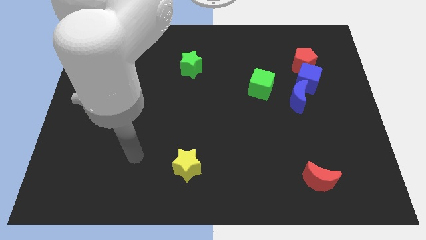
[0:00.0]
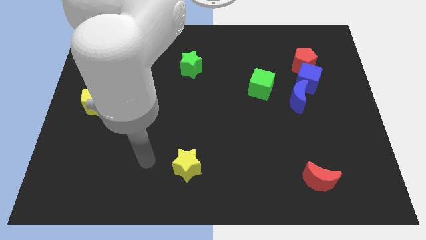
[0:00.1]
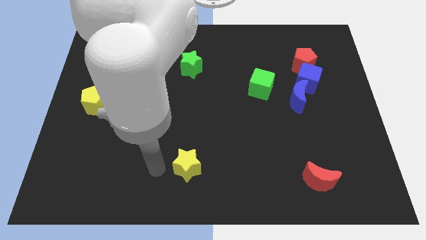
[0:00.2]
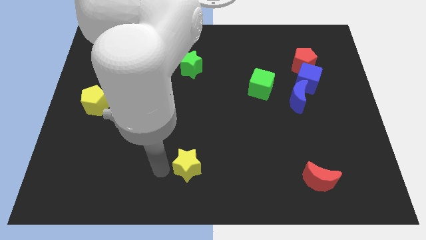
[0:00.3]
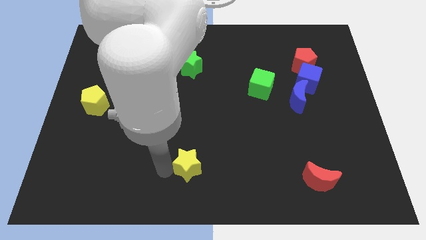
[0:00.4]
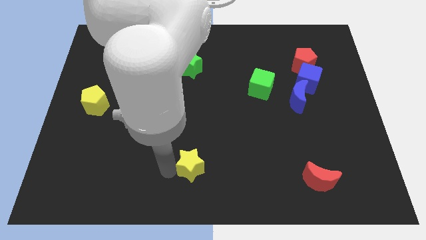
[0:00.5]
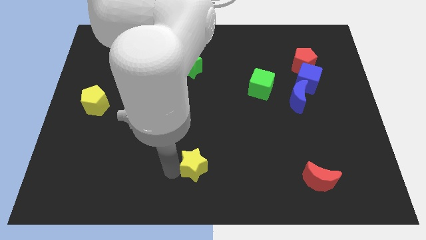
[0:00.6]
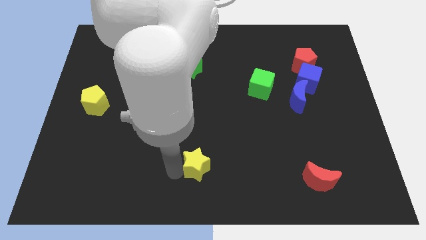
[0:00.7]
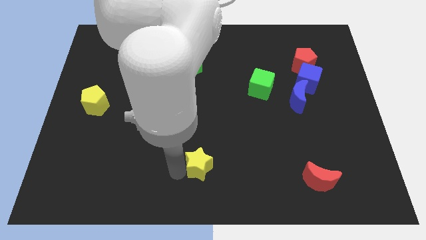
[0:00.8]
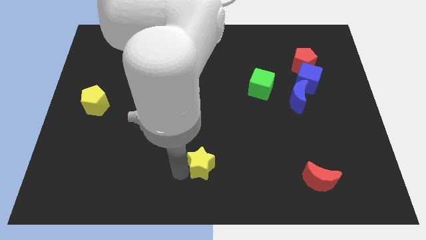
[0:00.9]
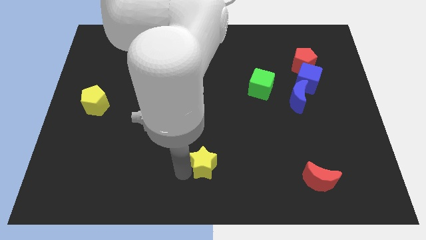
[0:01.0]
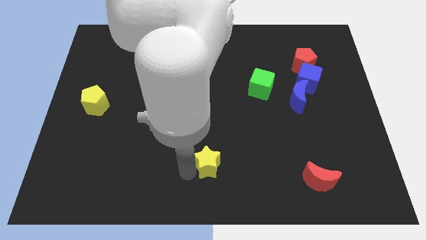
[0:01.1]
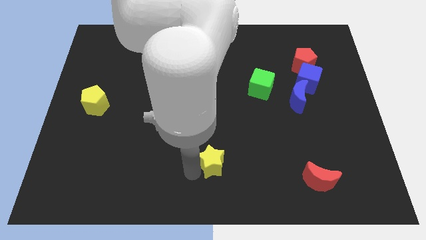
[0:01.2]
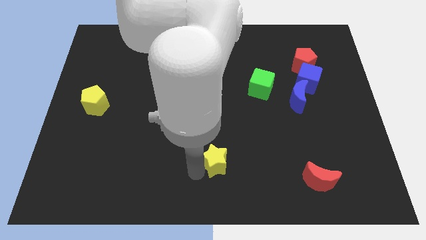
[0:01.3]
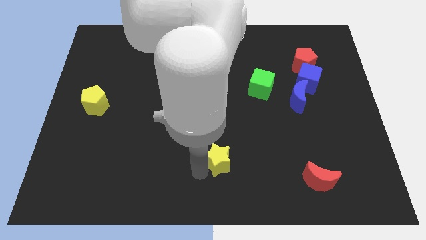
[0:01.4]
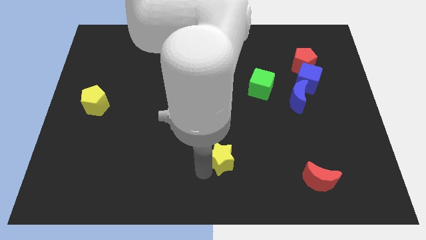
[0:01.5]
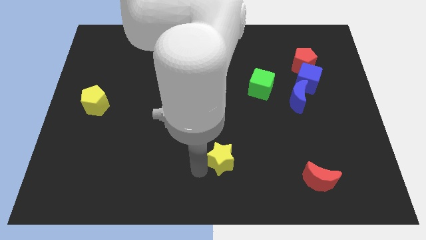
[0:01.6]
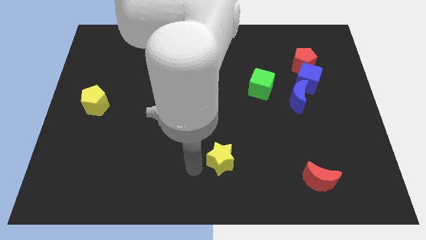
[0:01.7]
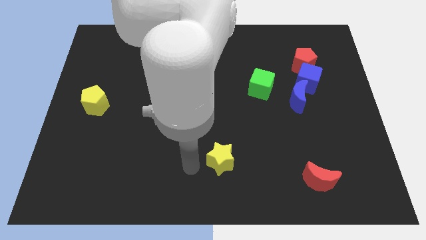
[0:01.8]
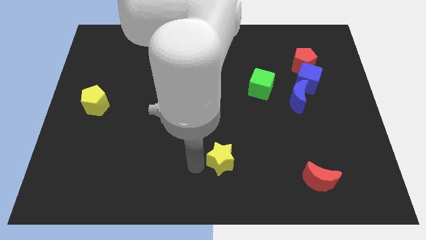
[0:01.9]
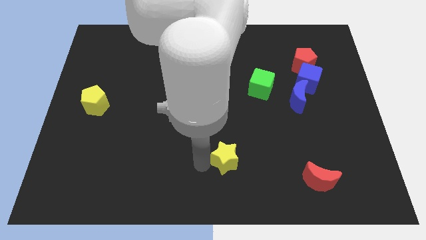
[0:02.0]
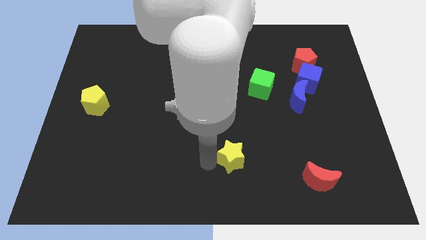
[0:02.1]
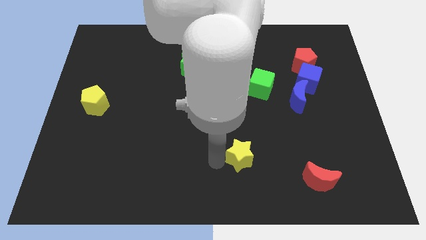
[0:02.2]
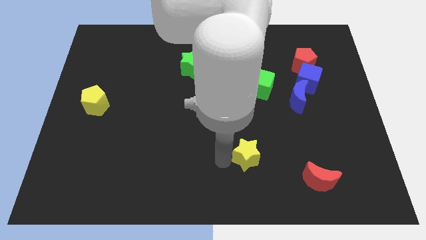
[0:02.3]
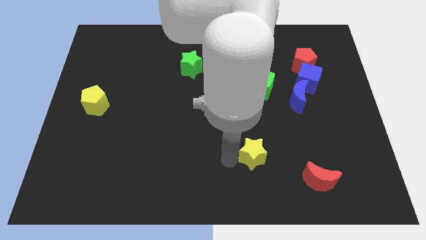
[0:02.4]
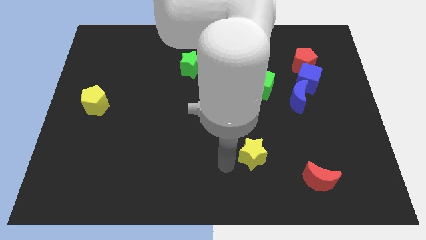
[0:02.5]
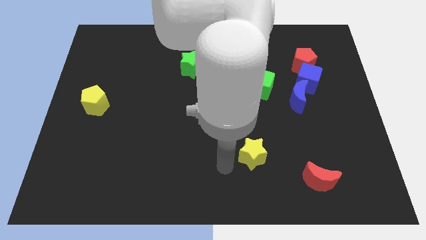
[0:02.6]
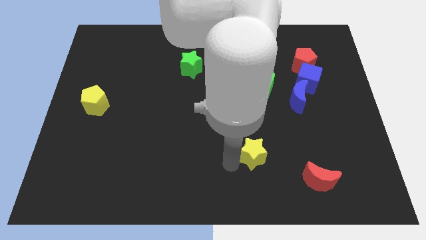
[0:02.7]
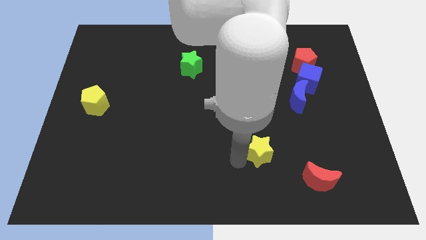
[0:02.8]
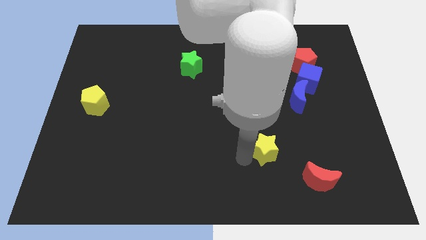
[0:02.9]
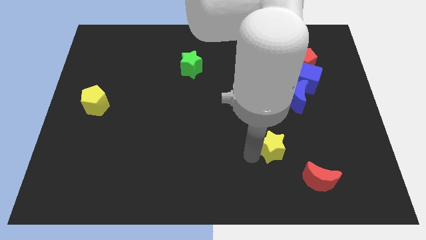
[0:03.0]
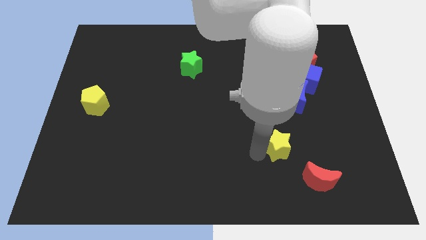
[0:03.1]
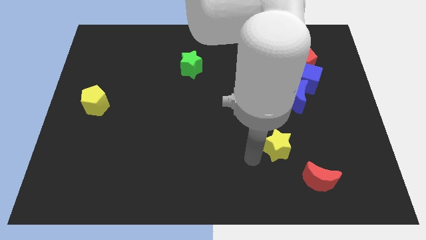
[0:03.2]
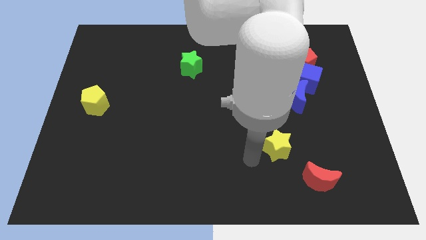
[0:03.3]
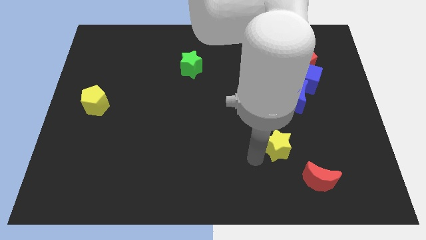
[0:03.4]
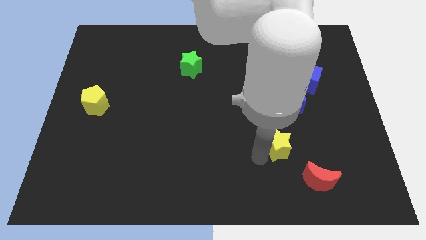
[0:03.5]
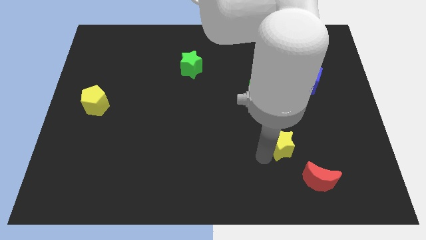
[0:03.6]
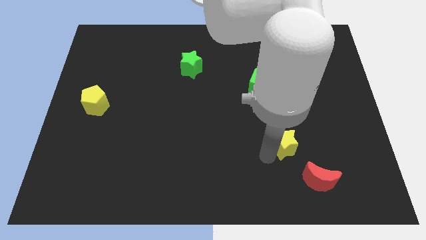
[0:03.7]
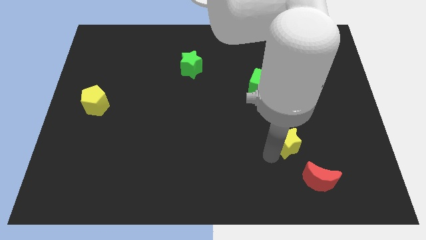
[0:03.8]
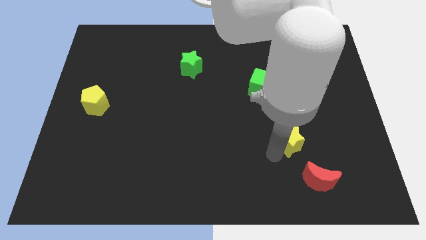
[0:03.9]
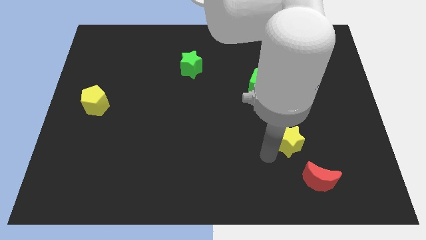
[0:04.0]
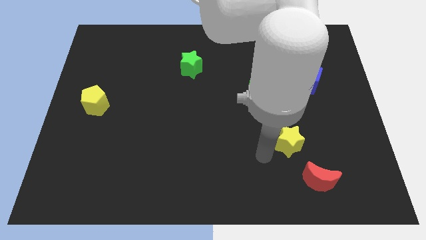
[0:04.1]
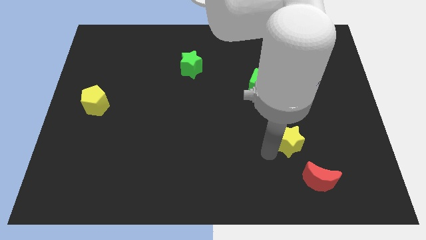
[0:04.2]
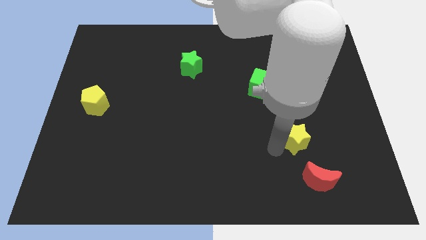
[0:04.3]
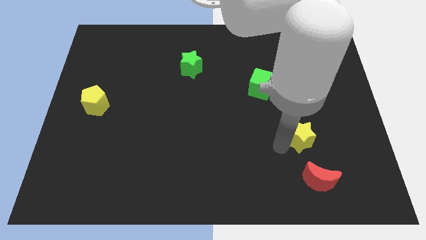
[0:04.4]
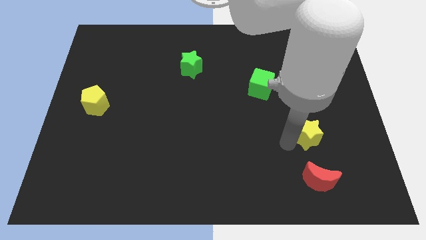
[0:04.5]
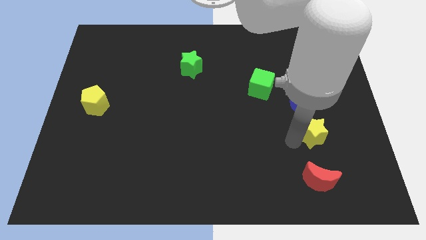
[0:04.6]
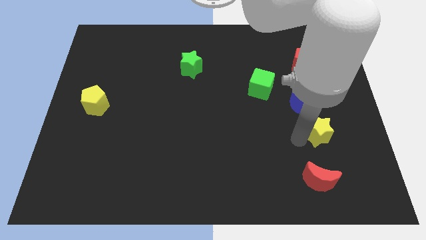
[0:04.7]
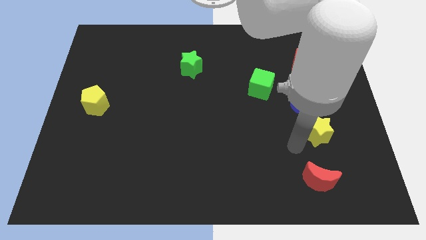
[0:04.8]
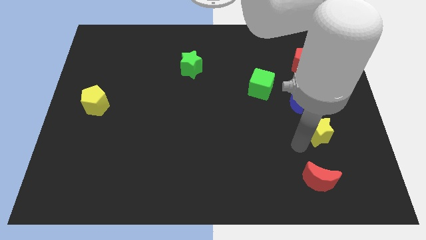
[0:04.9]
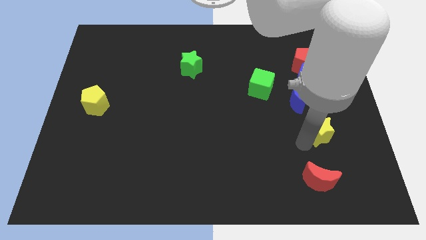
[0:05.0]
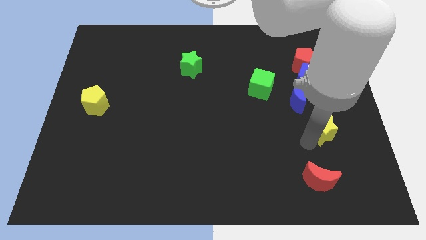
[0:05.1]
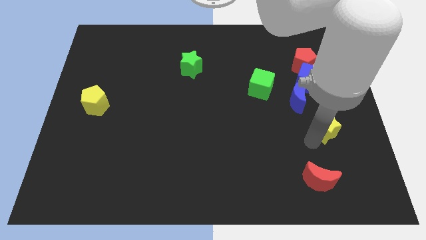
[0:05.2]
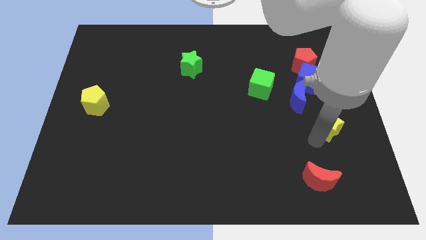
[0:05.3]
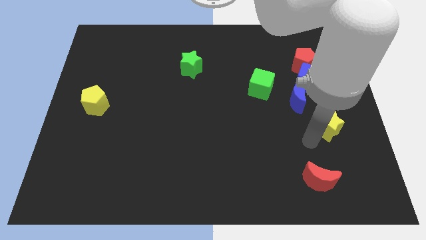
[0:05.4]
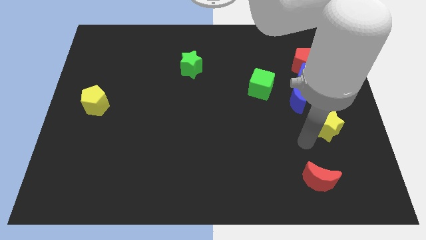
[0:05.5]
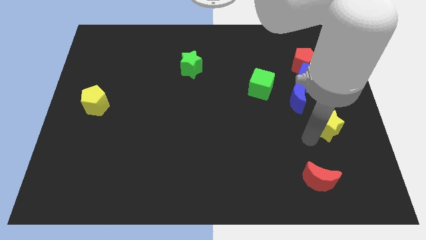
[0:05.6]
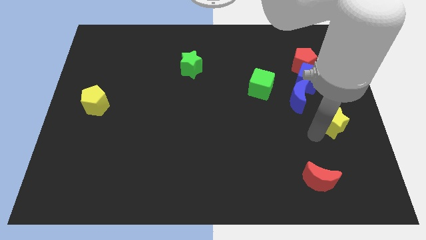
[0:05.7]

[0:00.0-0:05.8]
move the yellow star to the center right
